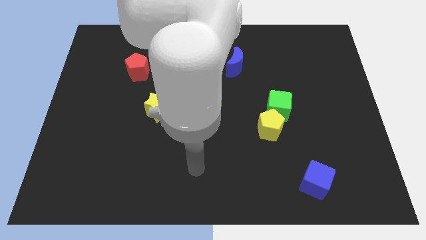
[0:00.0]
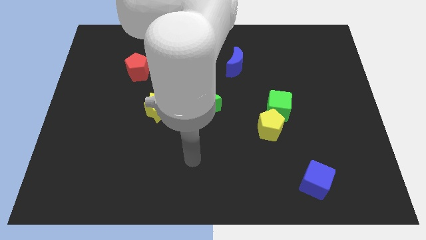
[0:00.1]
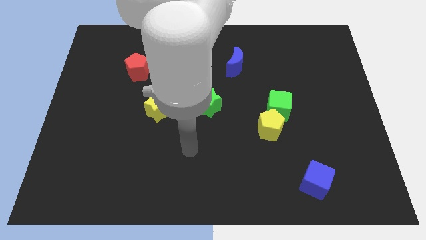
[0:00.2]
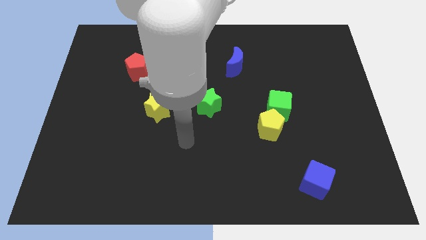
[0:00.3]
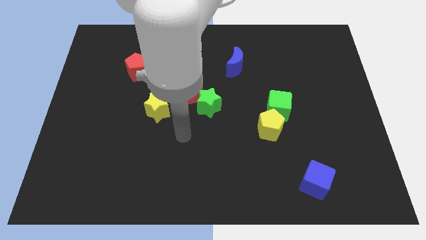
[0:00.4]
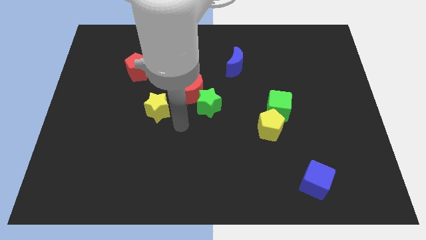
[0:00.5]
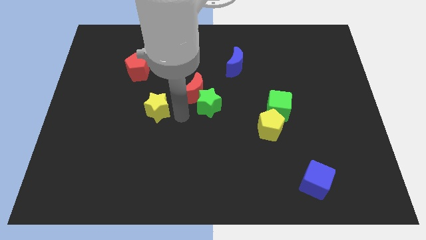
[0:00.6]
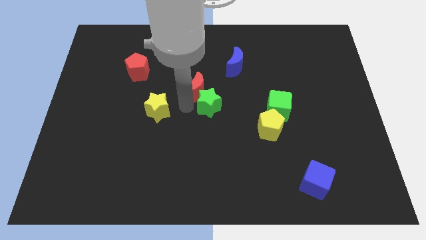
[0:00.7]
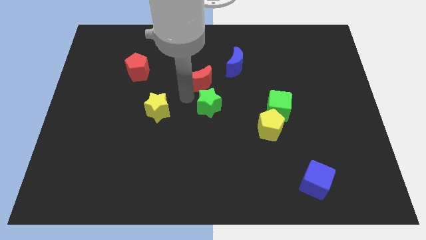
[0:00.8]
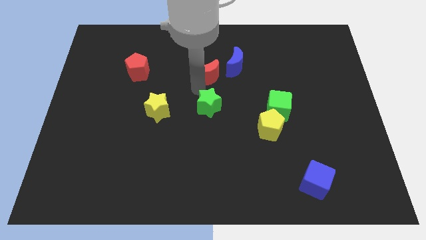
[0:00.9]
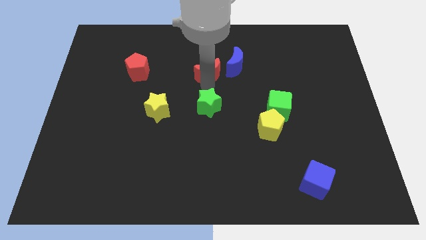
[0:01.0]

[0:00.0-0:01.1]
pull the green star apart from the red moon

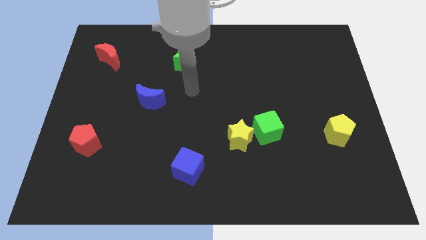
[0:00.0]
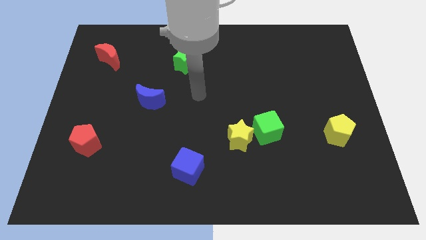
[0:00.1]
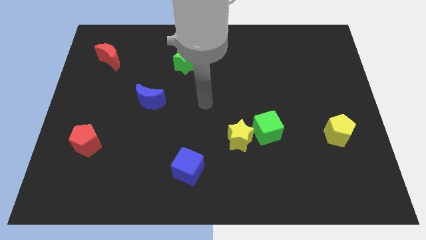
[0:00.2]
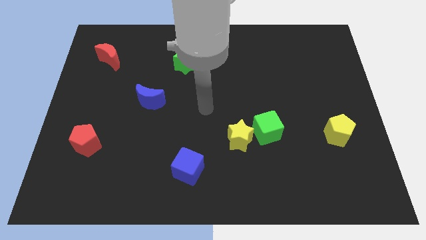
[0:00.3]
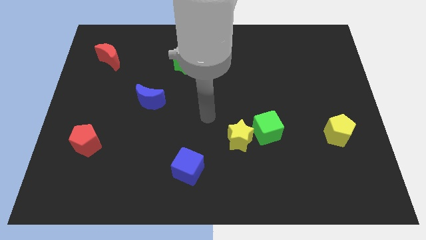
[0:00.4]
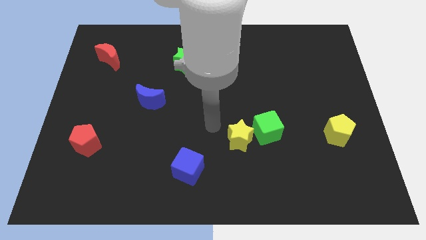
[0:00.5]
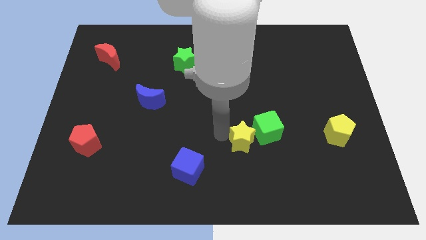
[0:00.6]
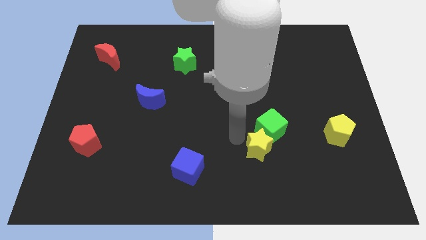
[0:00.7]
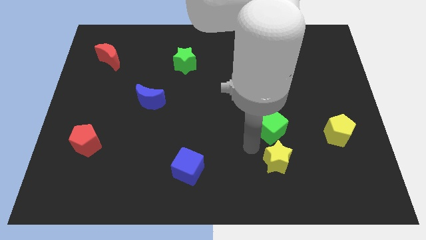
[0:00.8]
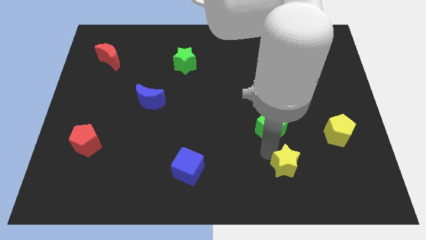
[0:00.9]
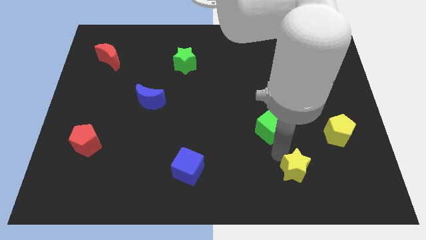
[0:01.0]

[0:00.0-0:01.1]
move the green cube away from the yellow star

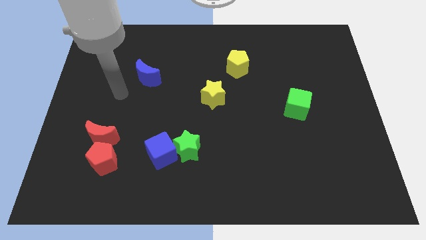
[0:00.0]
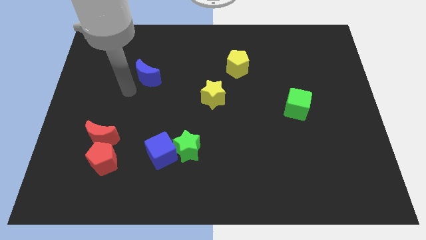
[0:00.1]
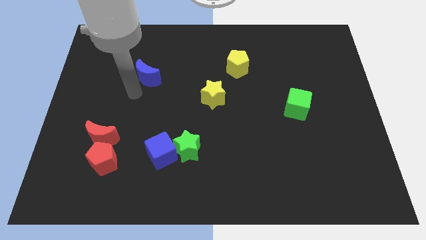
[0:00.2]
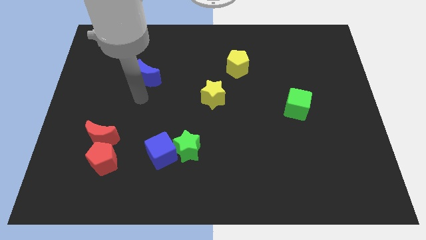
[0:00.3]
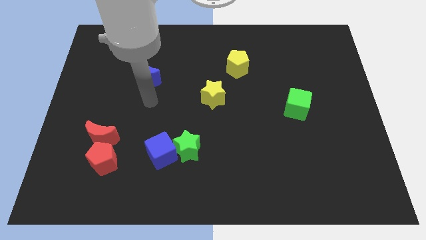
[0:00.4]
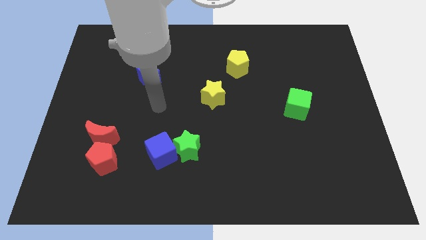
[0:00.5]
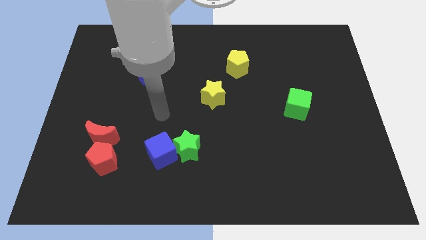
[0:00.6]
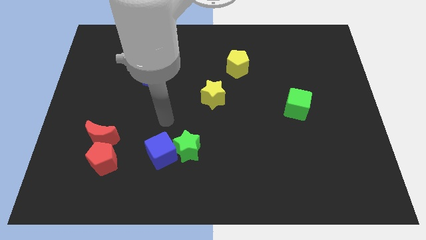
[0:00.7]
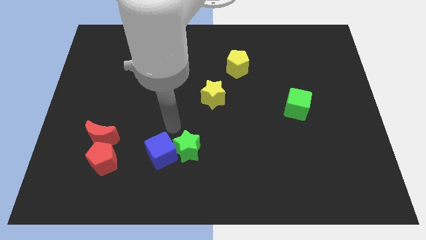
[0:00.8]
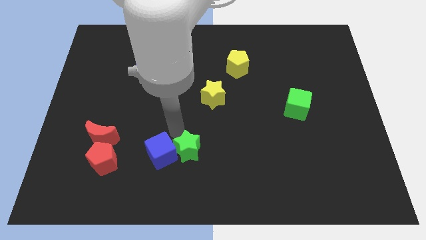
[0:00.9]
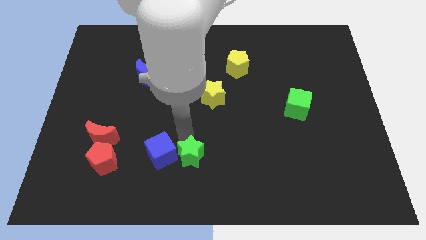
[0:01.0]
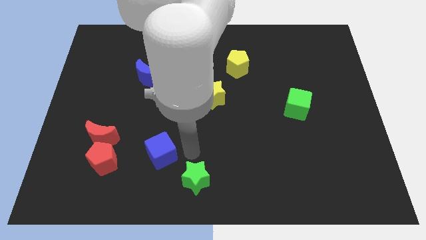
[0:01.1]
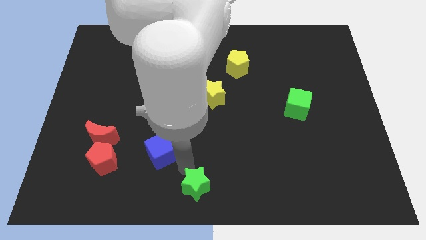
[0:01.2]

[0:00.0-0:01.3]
move the blue cube away from the green star

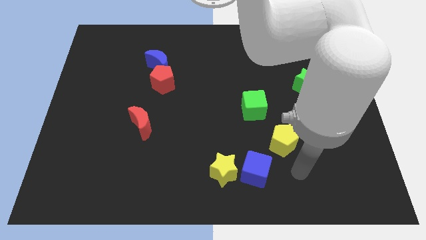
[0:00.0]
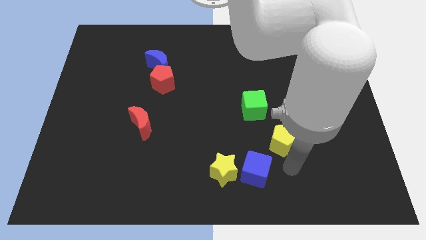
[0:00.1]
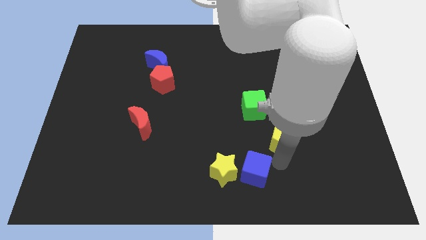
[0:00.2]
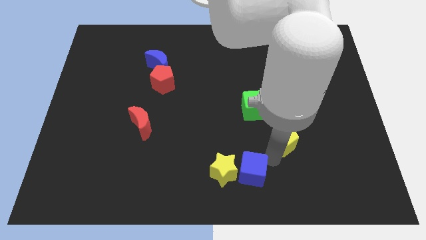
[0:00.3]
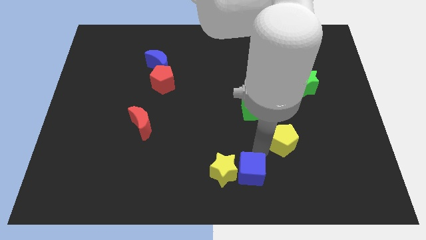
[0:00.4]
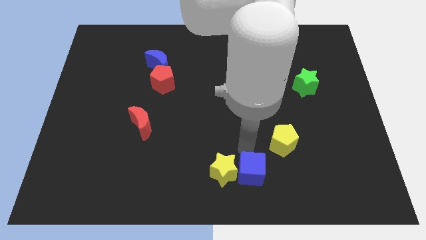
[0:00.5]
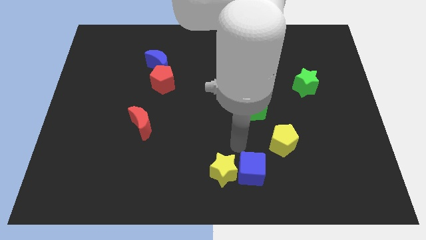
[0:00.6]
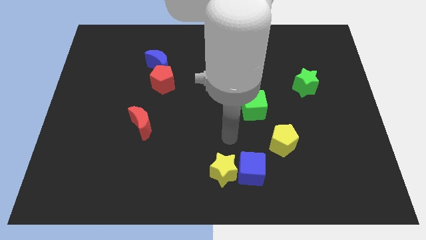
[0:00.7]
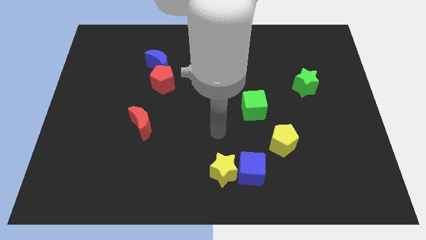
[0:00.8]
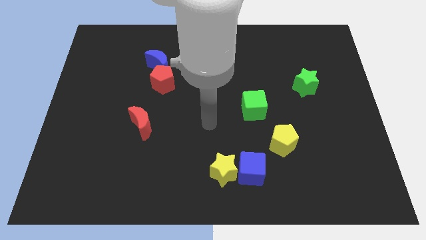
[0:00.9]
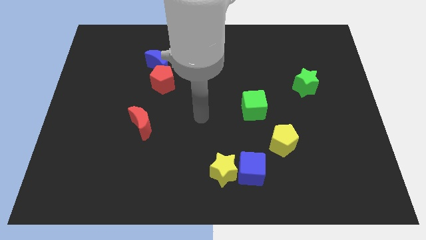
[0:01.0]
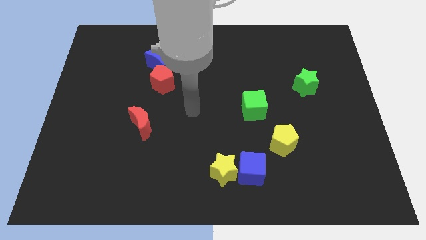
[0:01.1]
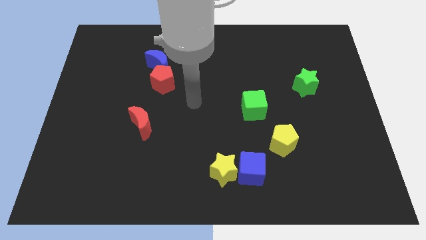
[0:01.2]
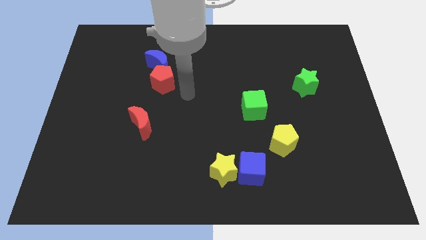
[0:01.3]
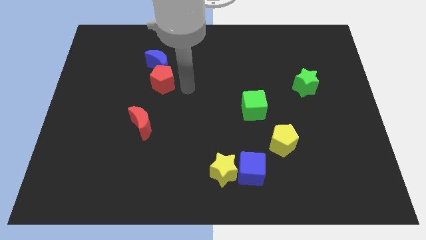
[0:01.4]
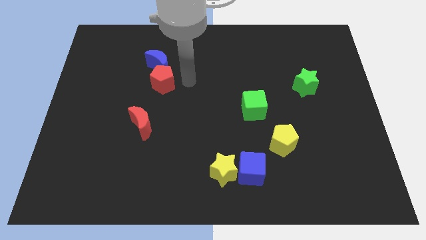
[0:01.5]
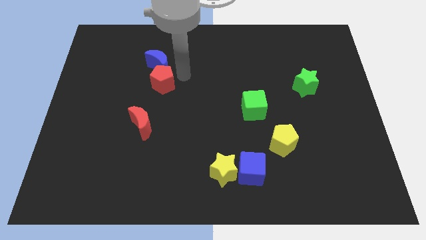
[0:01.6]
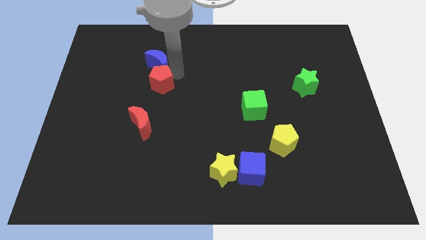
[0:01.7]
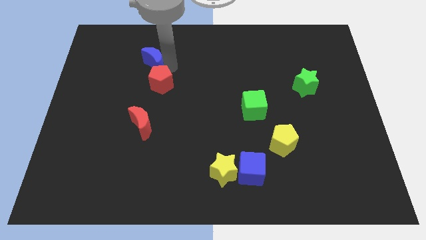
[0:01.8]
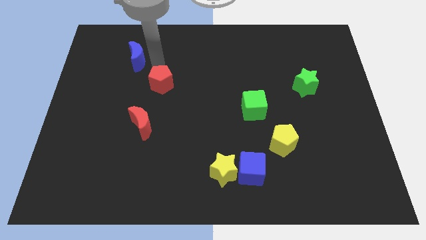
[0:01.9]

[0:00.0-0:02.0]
move the red pentagon away from the blue moon

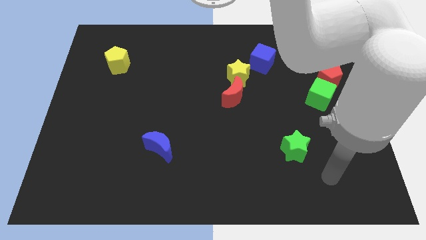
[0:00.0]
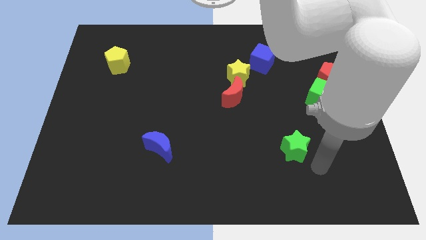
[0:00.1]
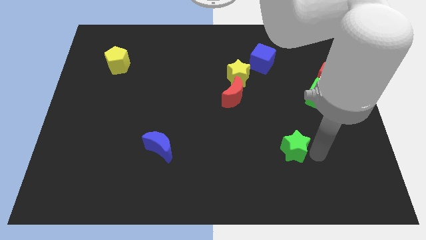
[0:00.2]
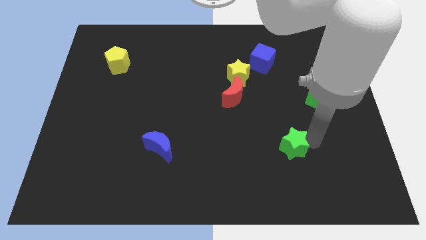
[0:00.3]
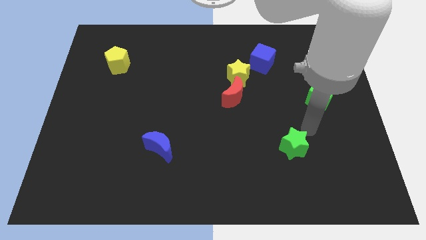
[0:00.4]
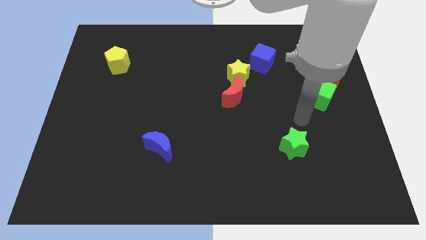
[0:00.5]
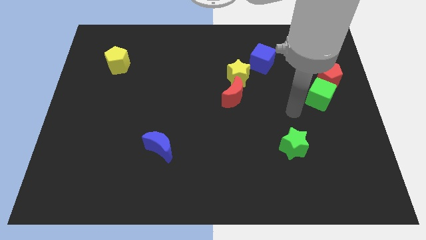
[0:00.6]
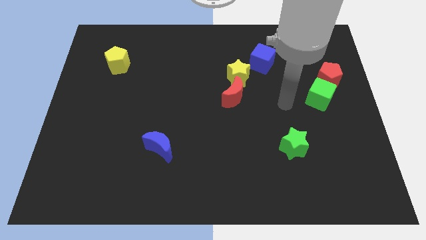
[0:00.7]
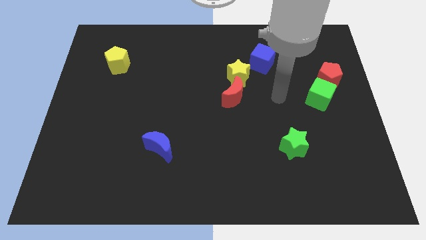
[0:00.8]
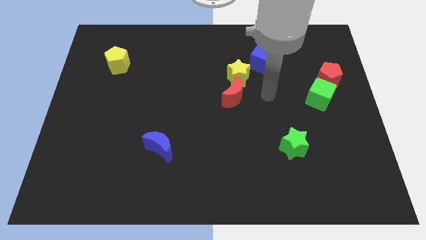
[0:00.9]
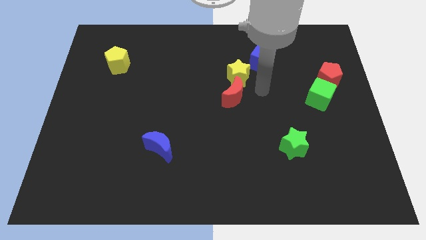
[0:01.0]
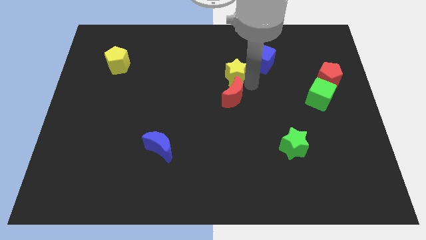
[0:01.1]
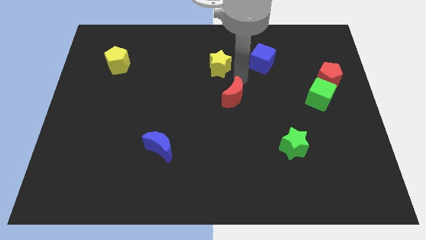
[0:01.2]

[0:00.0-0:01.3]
separate the red moon from the yellow star

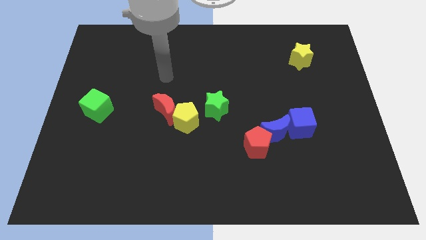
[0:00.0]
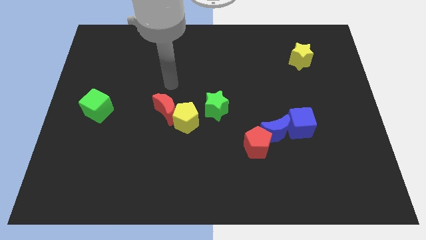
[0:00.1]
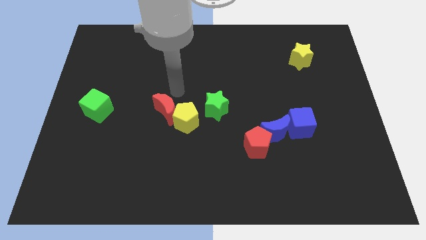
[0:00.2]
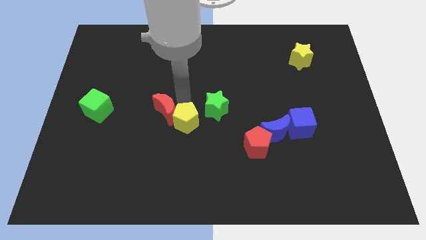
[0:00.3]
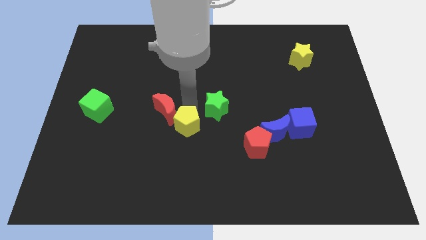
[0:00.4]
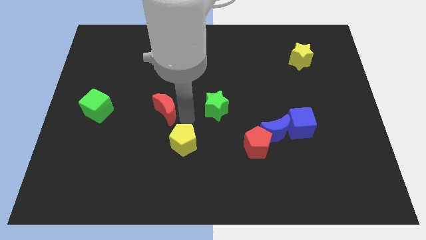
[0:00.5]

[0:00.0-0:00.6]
separate the red moon from the yellow pentagon

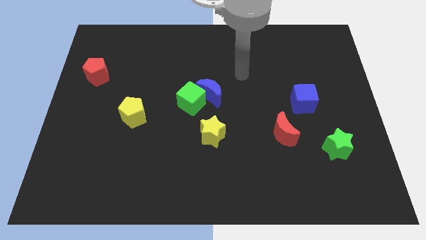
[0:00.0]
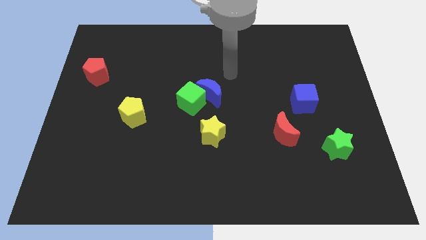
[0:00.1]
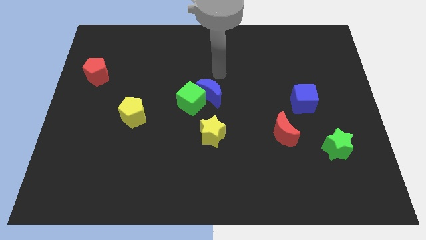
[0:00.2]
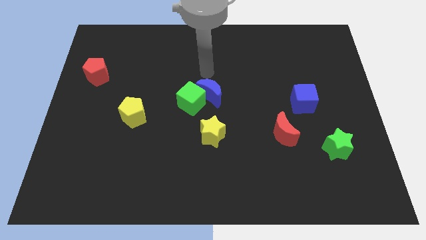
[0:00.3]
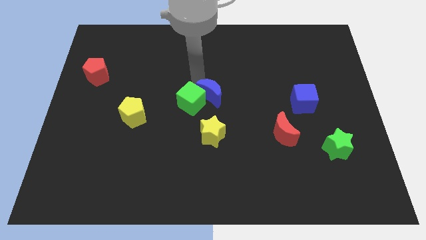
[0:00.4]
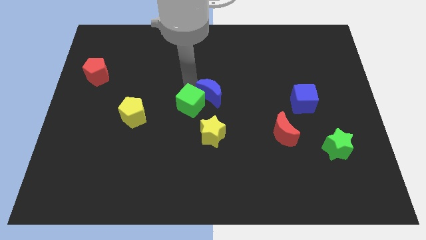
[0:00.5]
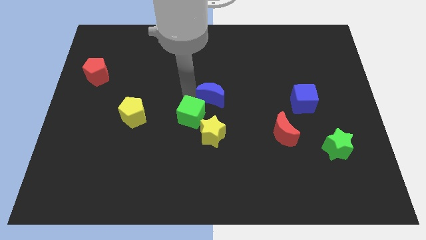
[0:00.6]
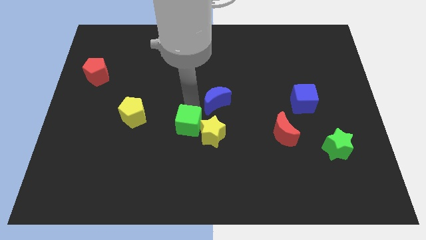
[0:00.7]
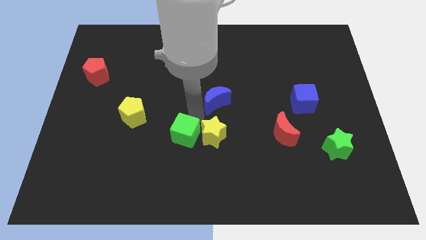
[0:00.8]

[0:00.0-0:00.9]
pull the blue moon apart from the green cube

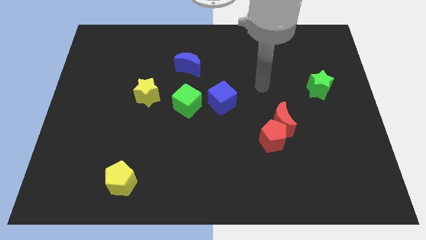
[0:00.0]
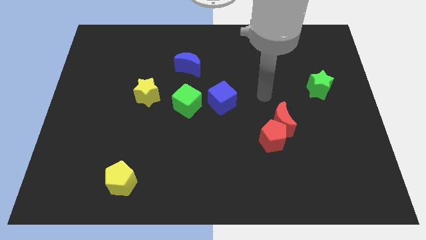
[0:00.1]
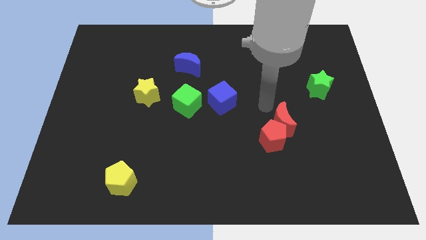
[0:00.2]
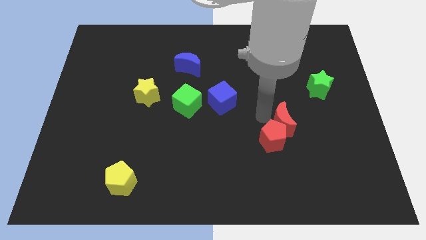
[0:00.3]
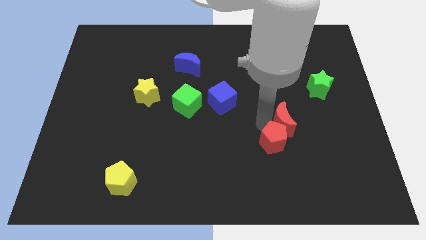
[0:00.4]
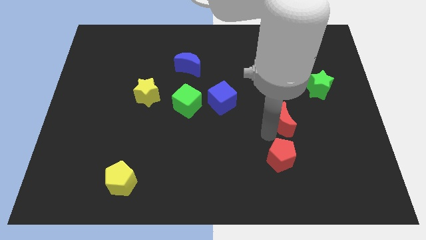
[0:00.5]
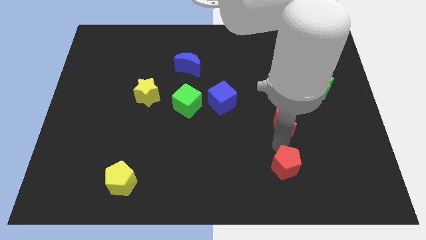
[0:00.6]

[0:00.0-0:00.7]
separate the red moon from the red pentagon

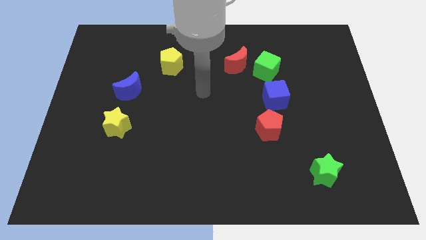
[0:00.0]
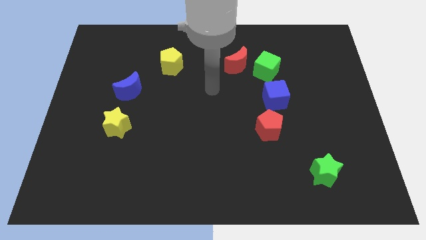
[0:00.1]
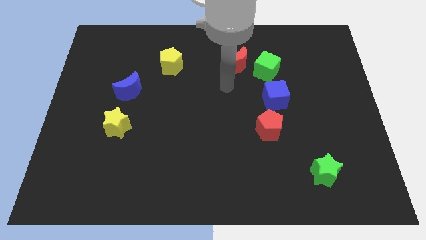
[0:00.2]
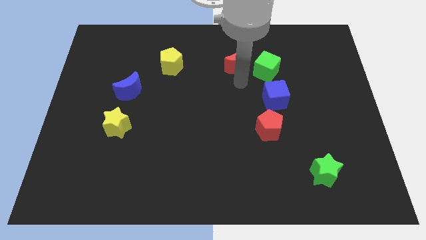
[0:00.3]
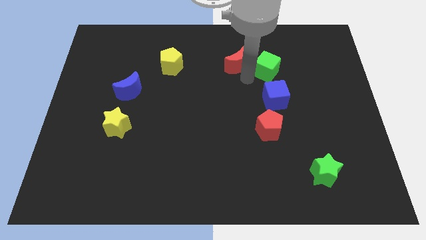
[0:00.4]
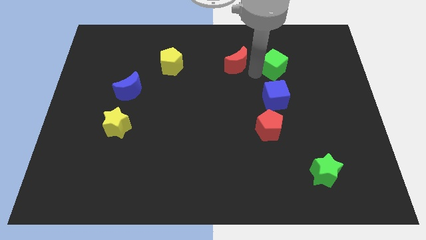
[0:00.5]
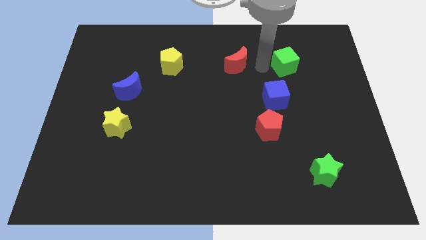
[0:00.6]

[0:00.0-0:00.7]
separate the red moon from the green cube
